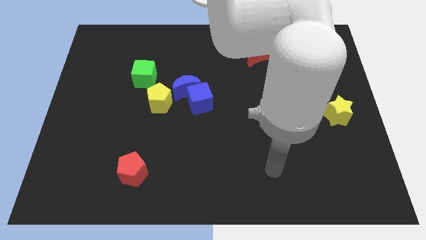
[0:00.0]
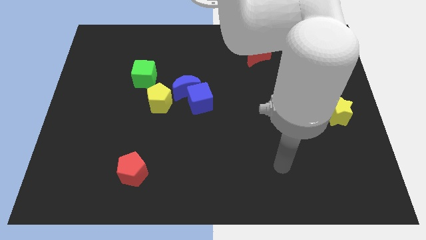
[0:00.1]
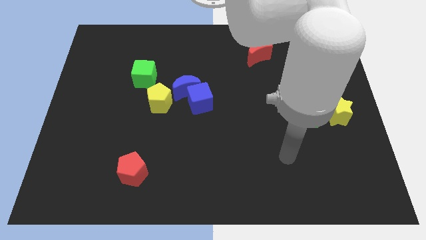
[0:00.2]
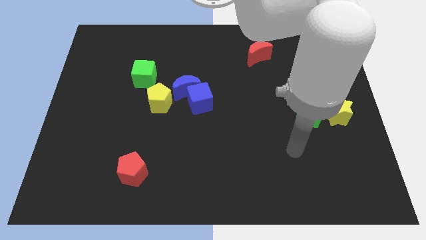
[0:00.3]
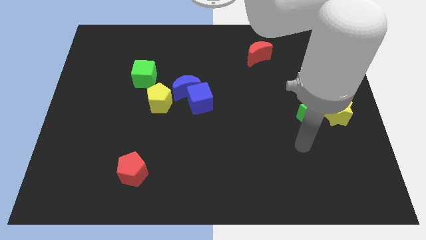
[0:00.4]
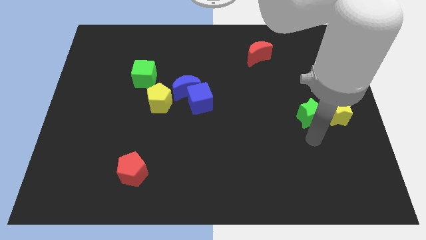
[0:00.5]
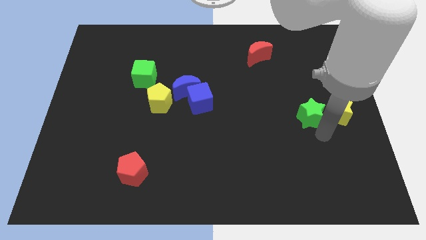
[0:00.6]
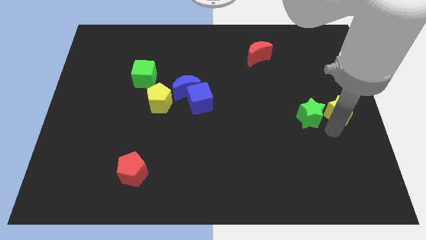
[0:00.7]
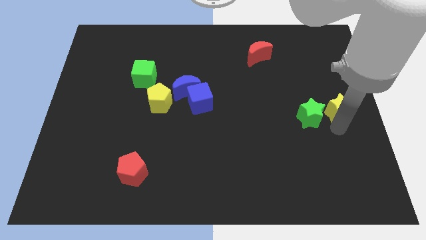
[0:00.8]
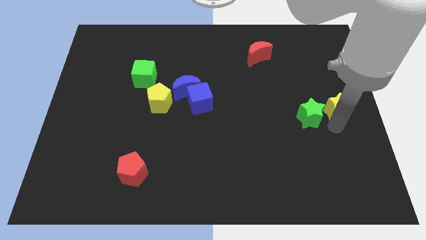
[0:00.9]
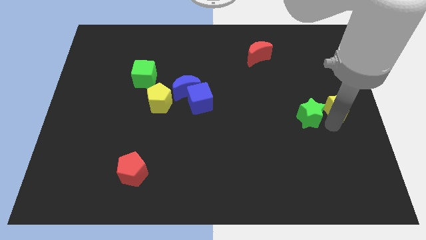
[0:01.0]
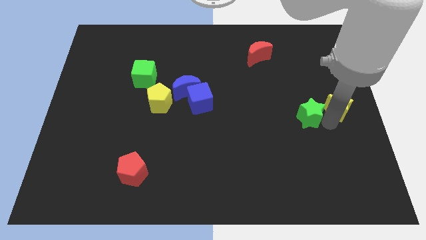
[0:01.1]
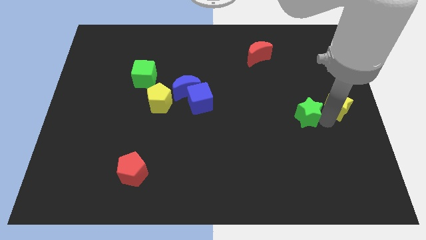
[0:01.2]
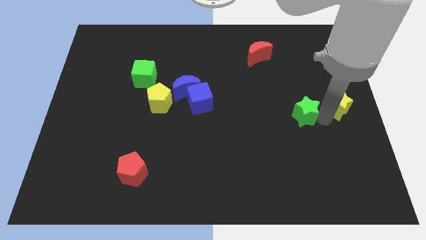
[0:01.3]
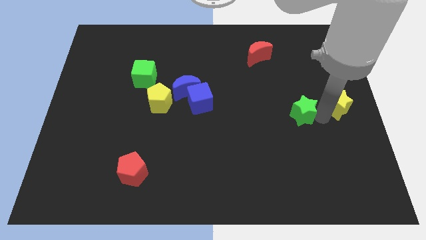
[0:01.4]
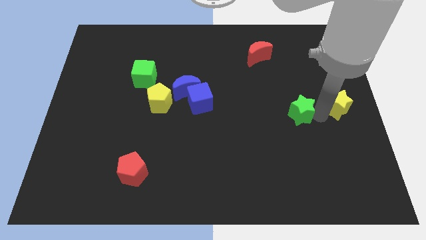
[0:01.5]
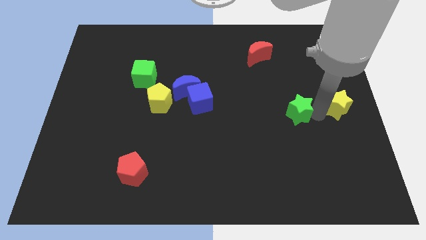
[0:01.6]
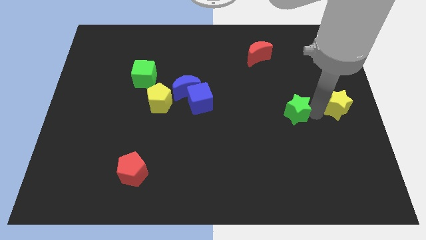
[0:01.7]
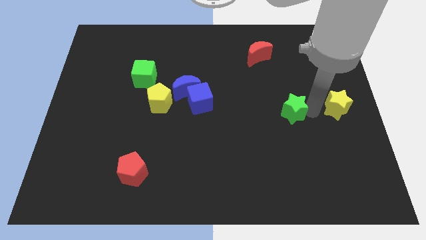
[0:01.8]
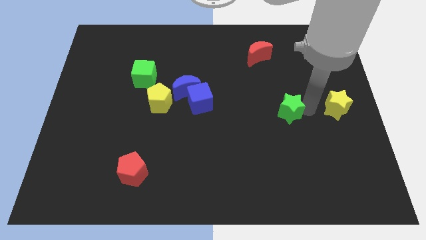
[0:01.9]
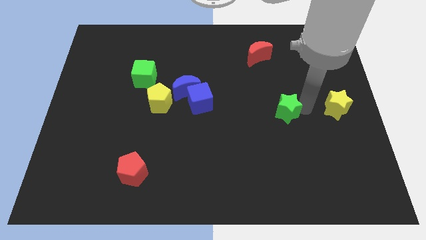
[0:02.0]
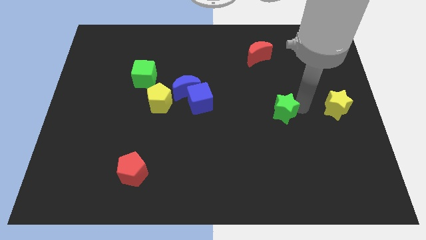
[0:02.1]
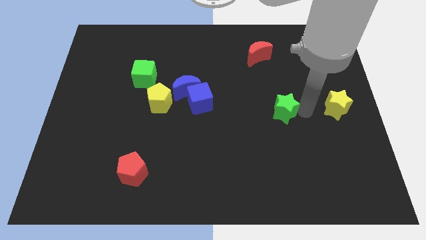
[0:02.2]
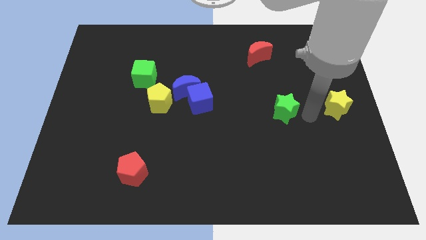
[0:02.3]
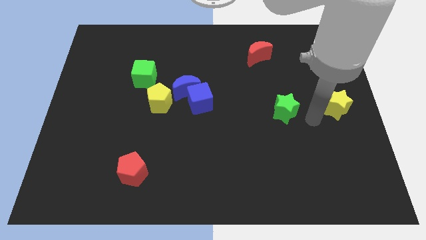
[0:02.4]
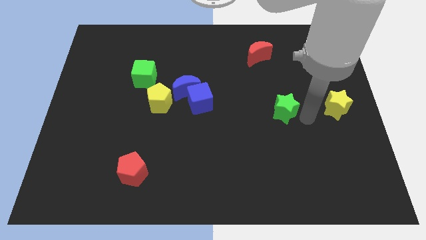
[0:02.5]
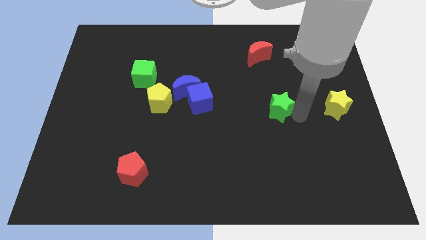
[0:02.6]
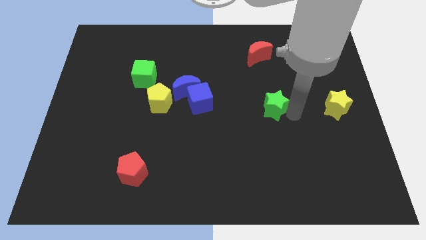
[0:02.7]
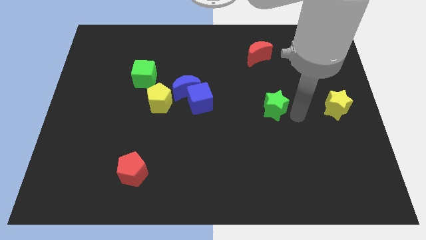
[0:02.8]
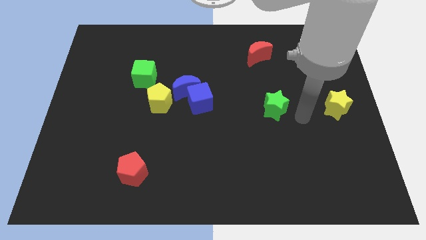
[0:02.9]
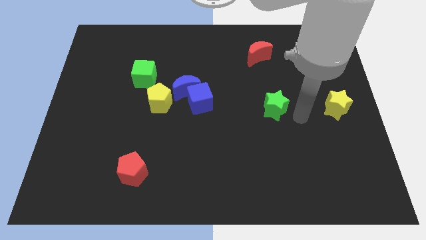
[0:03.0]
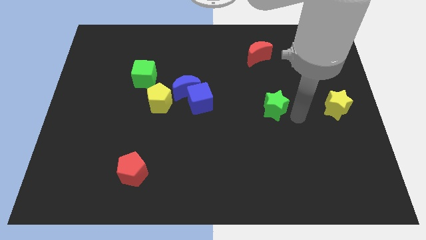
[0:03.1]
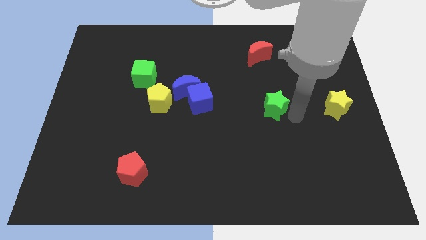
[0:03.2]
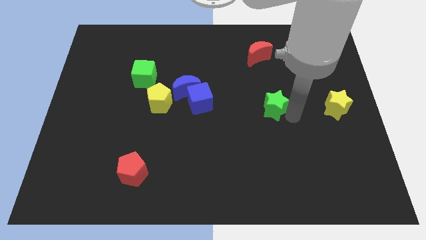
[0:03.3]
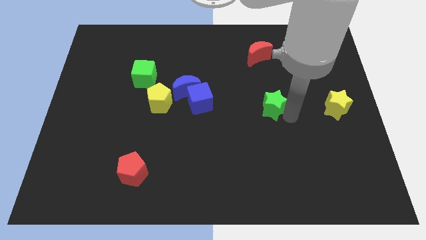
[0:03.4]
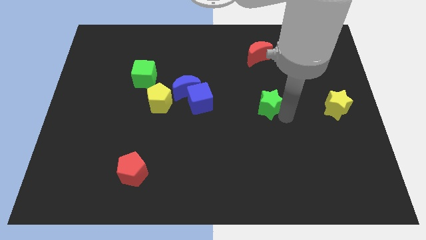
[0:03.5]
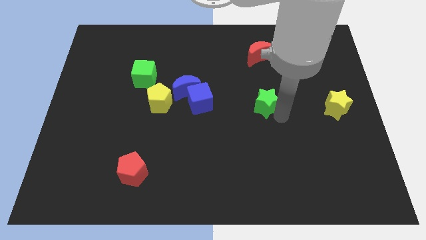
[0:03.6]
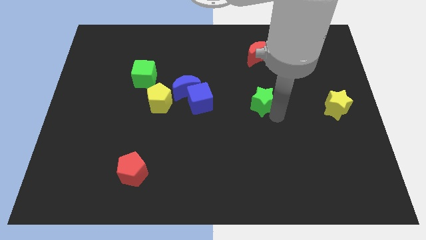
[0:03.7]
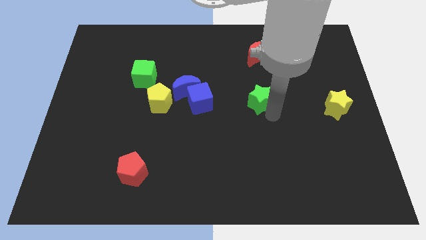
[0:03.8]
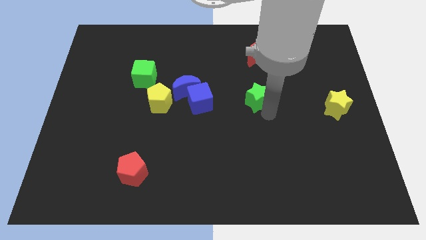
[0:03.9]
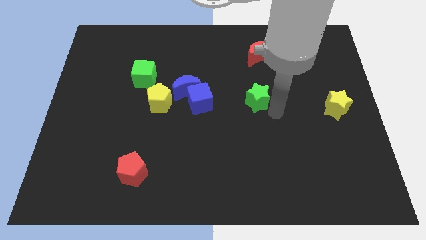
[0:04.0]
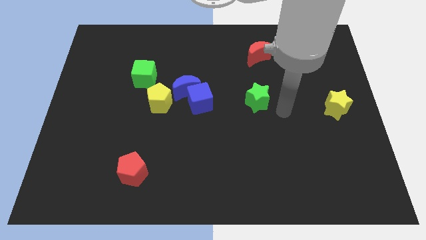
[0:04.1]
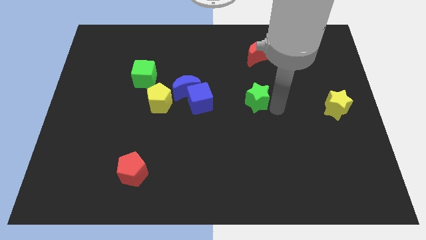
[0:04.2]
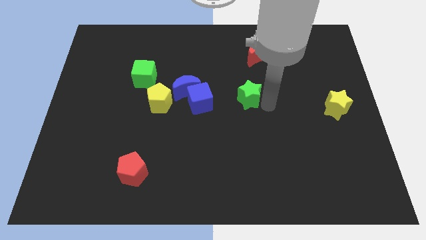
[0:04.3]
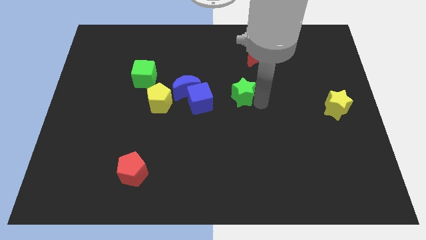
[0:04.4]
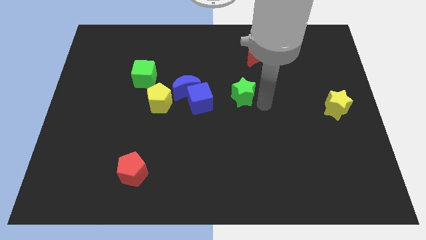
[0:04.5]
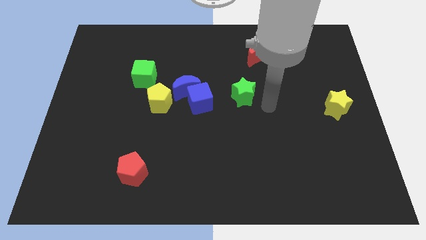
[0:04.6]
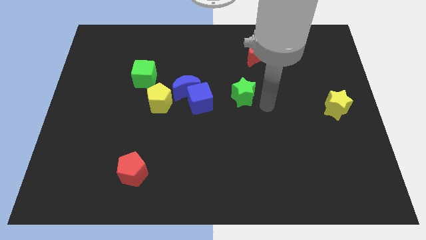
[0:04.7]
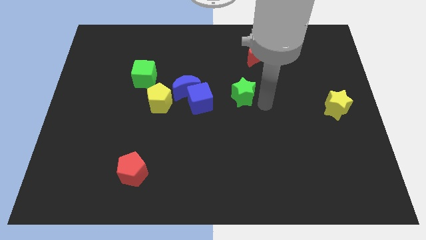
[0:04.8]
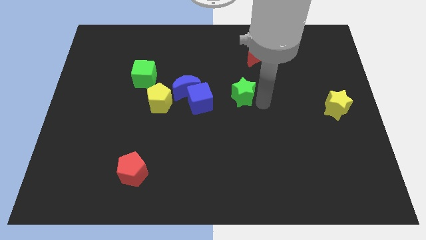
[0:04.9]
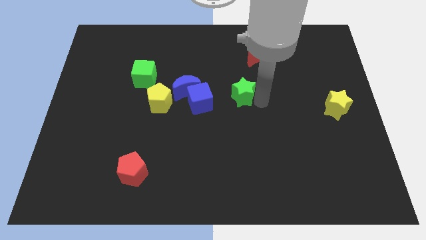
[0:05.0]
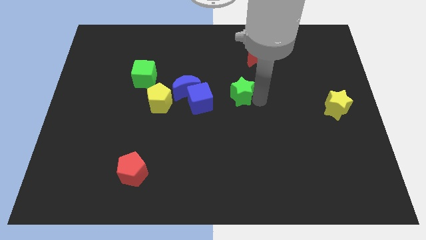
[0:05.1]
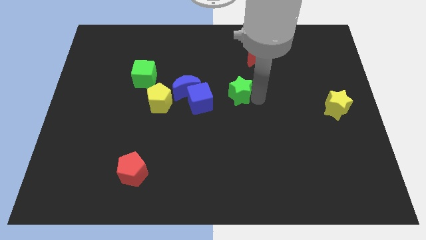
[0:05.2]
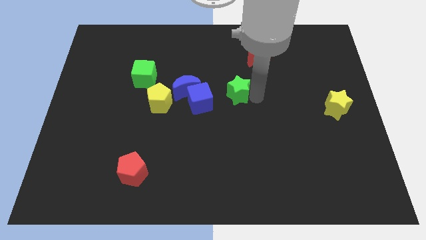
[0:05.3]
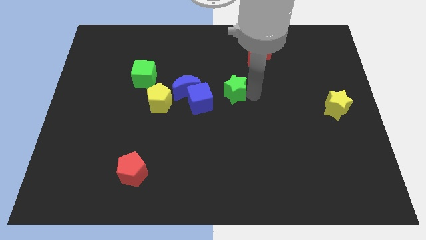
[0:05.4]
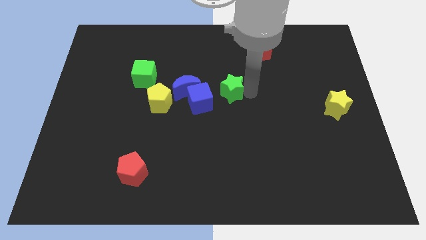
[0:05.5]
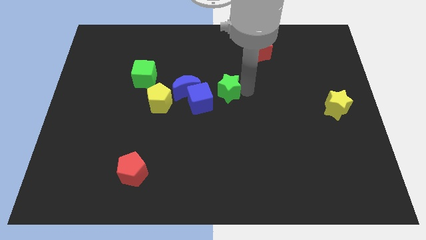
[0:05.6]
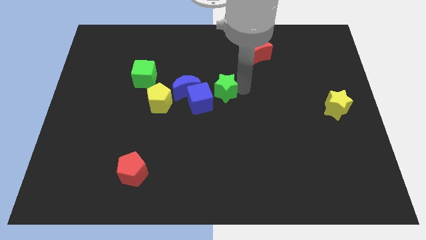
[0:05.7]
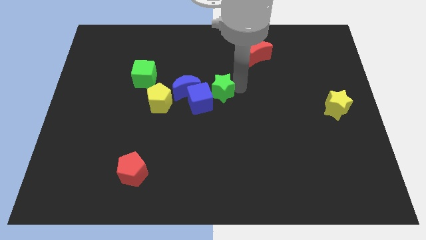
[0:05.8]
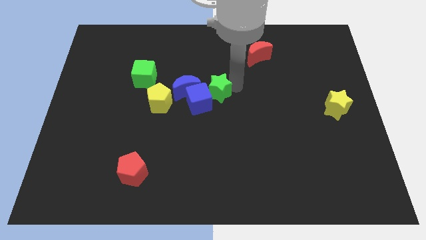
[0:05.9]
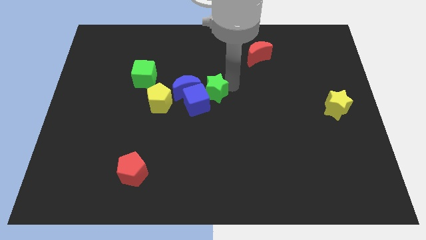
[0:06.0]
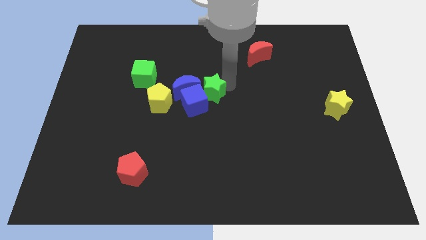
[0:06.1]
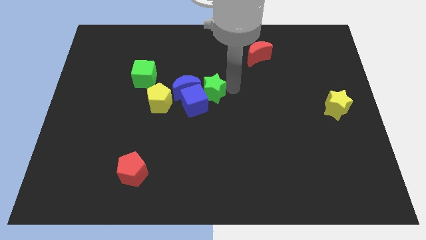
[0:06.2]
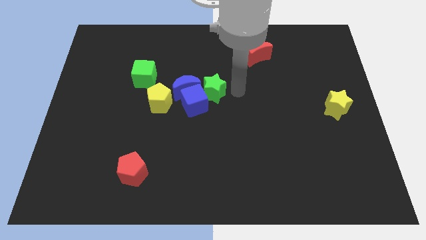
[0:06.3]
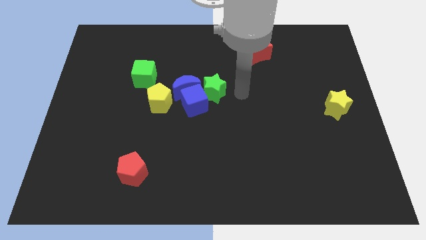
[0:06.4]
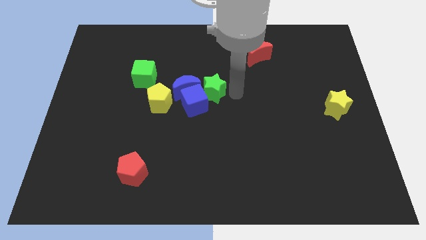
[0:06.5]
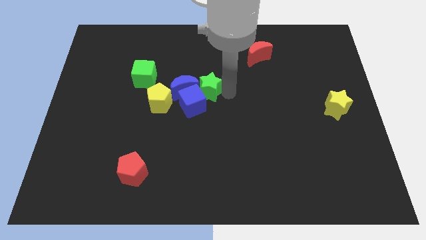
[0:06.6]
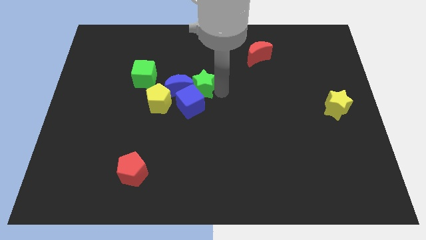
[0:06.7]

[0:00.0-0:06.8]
slide the green star to the blue moon

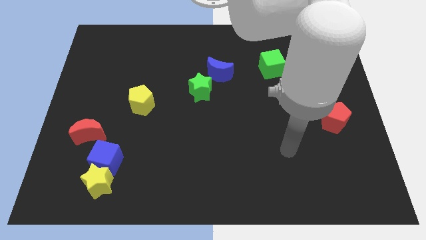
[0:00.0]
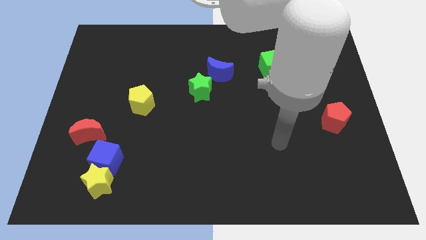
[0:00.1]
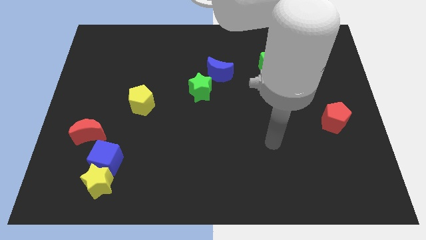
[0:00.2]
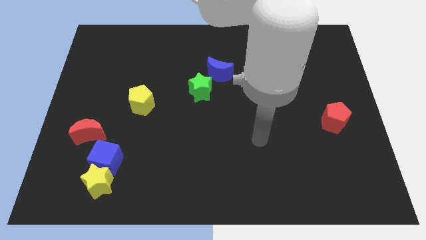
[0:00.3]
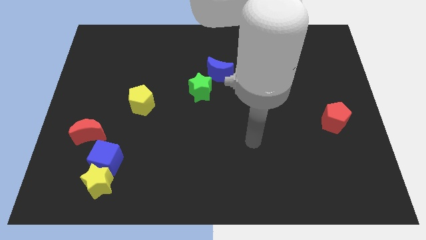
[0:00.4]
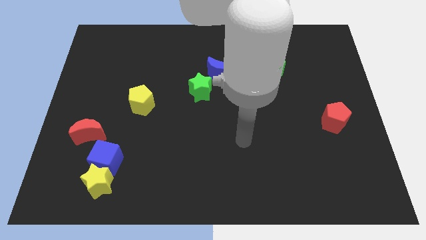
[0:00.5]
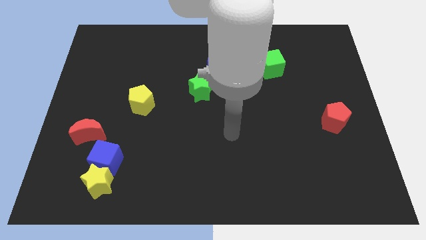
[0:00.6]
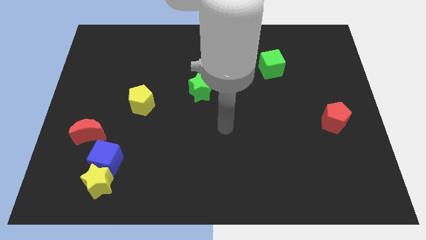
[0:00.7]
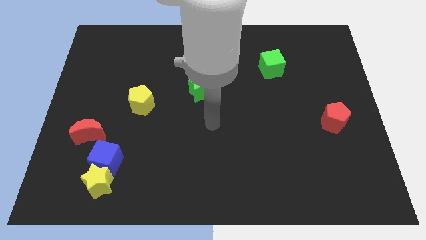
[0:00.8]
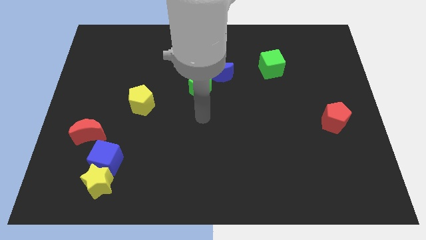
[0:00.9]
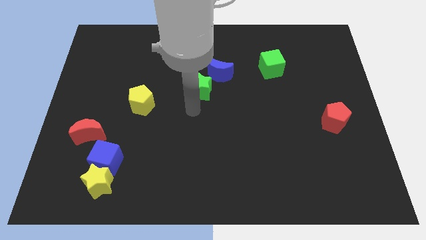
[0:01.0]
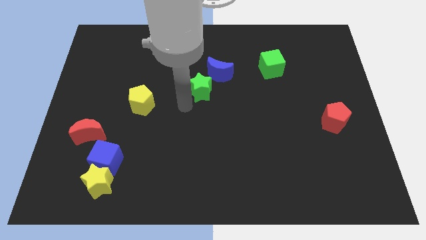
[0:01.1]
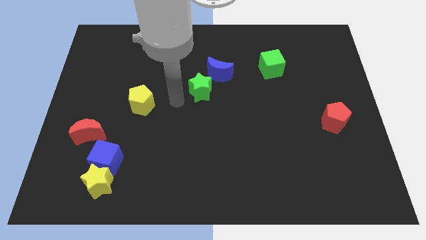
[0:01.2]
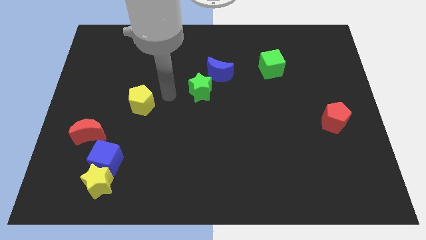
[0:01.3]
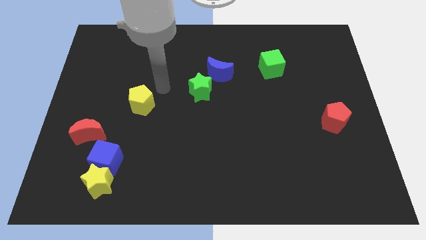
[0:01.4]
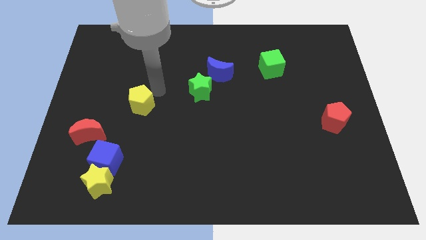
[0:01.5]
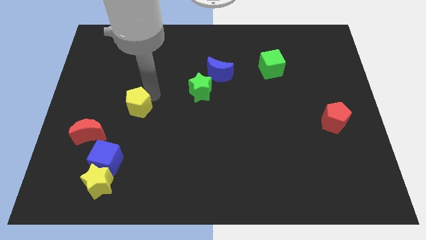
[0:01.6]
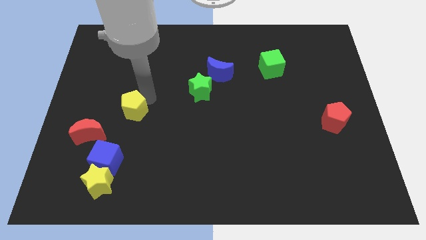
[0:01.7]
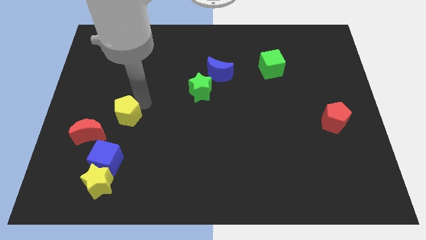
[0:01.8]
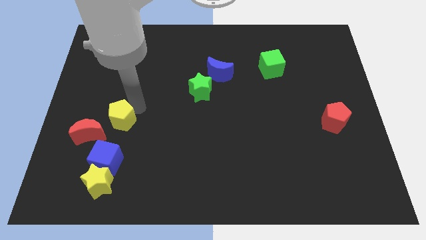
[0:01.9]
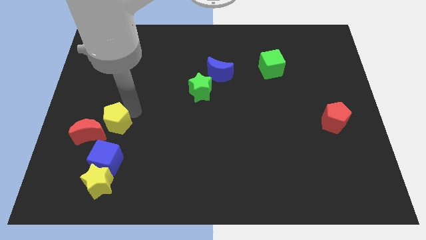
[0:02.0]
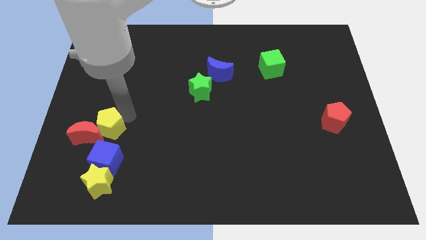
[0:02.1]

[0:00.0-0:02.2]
slide the yellow pentagon towards the red moon
